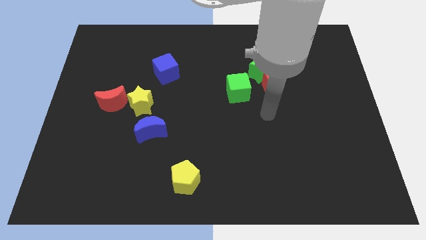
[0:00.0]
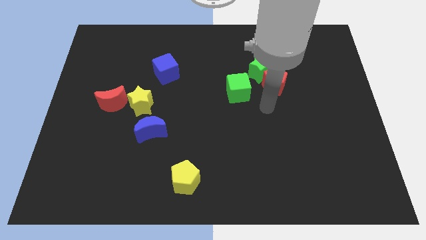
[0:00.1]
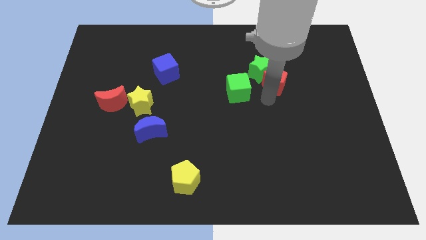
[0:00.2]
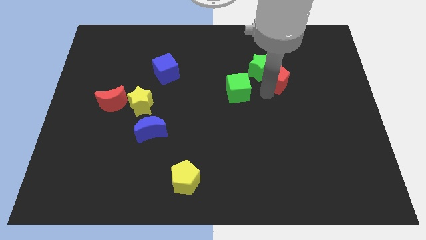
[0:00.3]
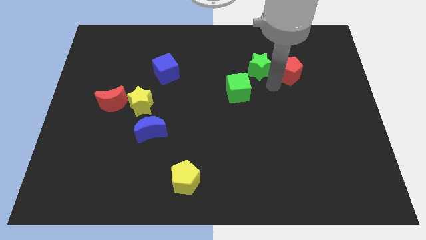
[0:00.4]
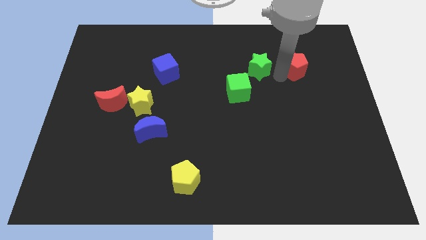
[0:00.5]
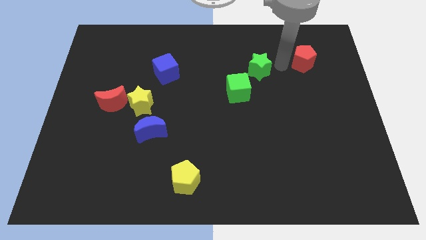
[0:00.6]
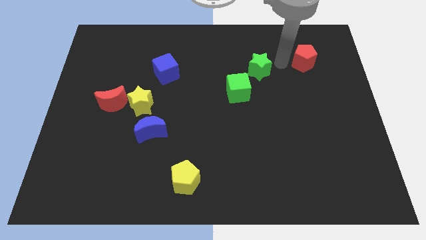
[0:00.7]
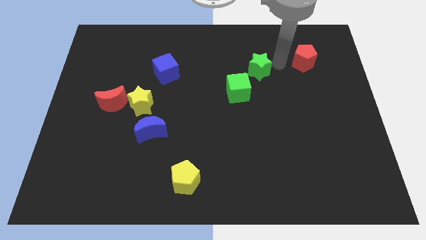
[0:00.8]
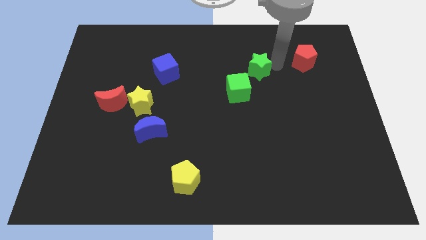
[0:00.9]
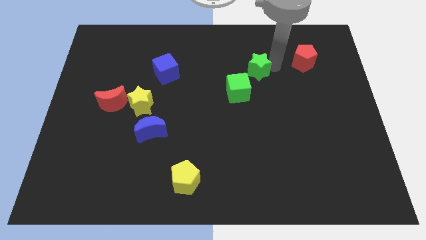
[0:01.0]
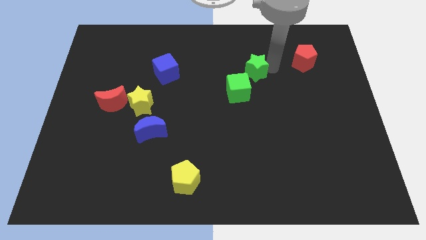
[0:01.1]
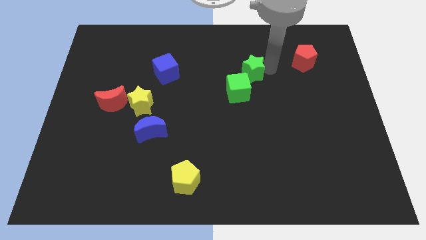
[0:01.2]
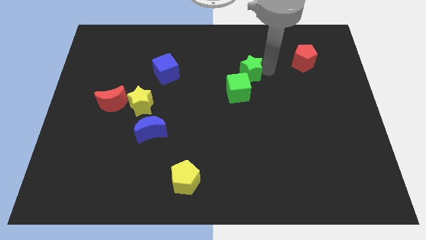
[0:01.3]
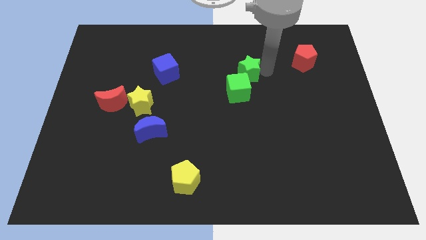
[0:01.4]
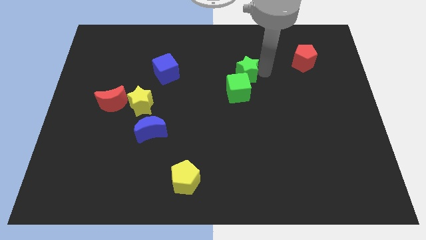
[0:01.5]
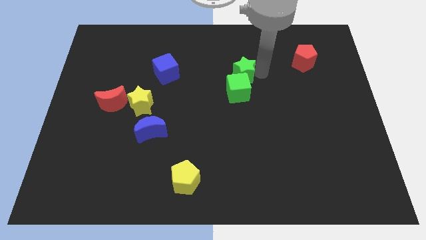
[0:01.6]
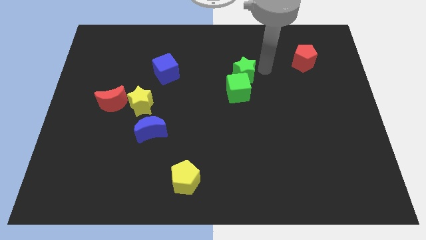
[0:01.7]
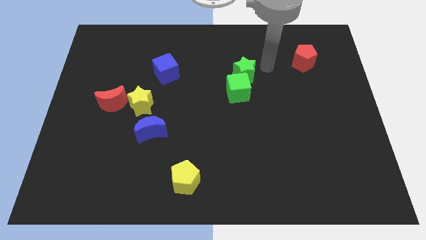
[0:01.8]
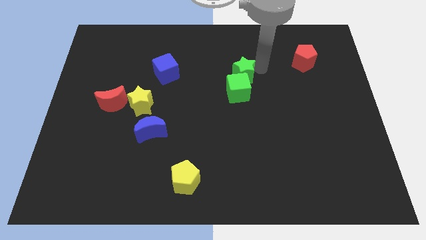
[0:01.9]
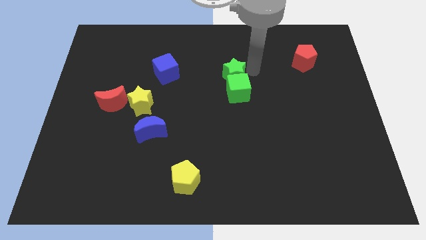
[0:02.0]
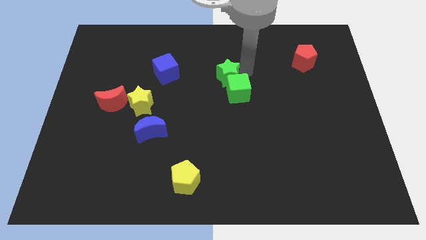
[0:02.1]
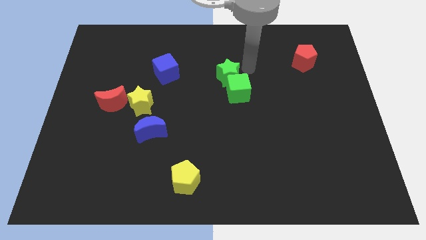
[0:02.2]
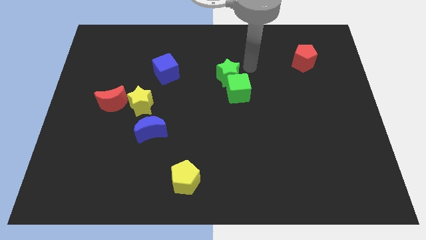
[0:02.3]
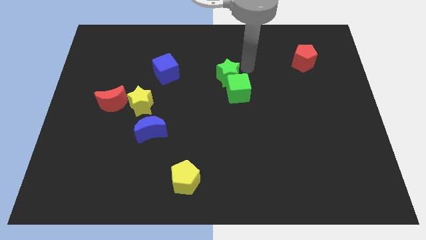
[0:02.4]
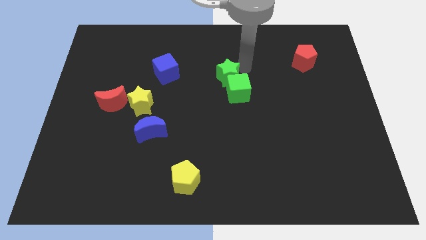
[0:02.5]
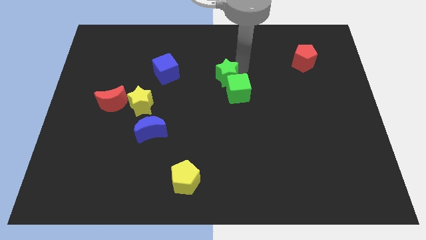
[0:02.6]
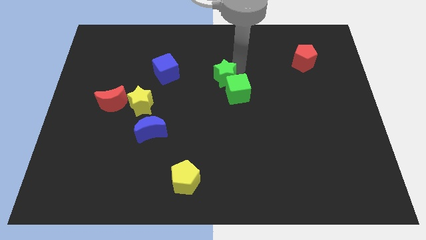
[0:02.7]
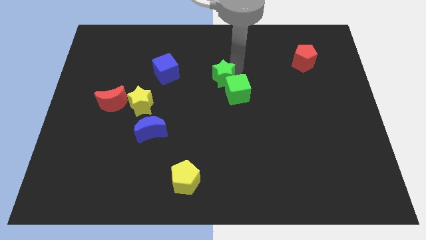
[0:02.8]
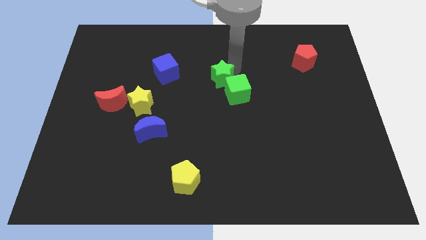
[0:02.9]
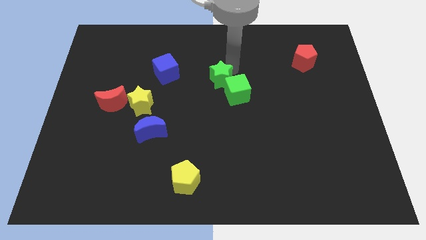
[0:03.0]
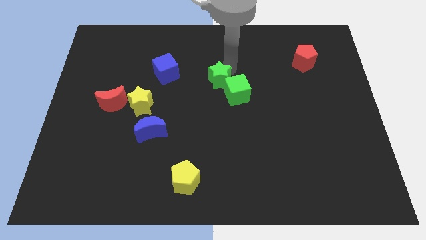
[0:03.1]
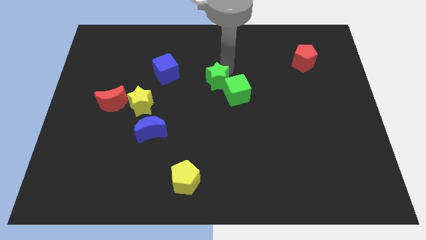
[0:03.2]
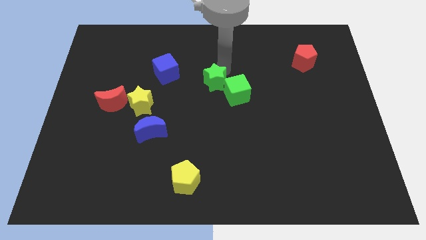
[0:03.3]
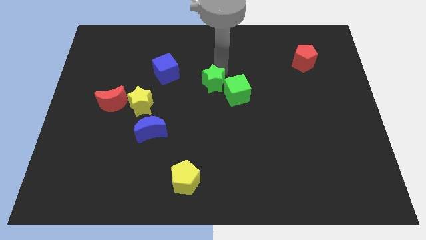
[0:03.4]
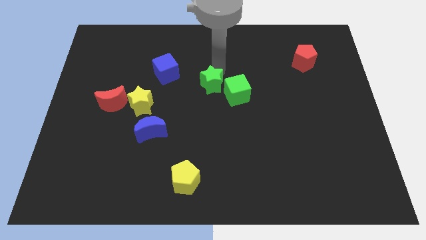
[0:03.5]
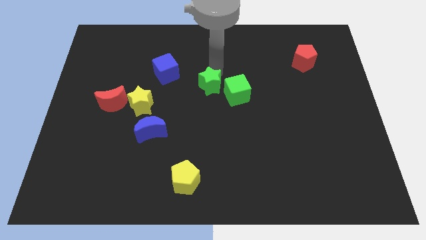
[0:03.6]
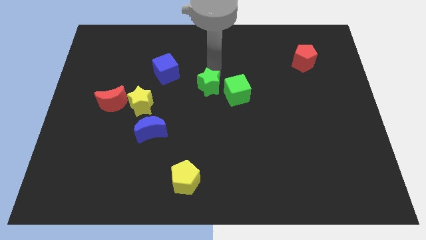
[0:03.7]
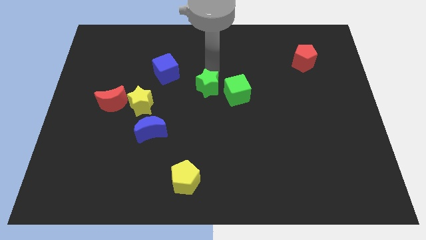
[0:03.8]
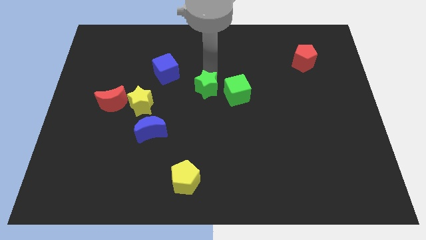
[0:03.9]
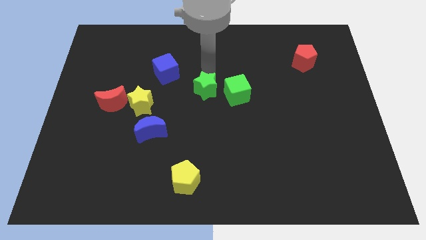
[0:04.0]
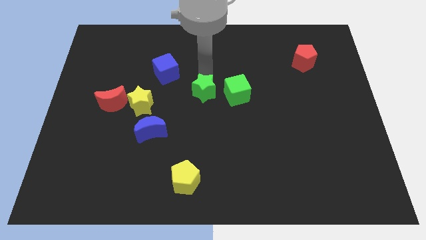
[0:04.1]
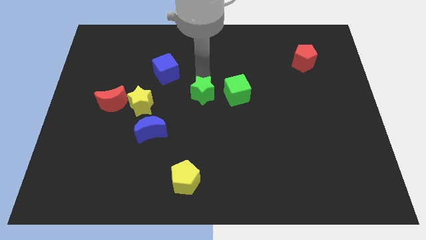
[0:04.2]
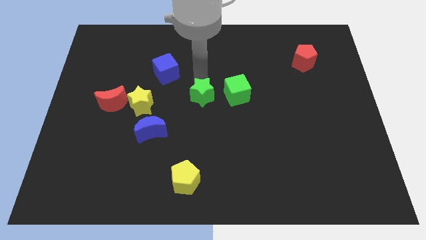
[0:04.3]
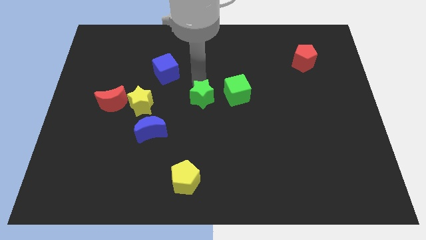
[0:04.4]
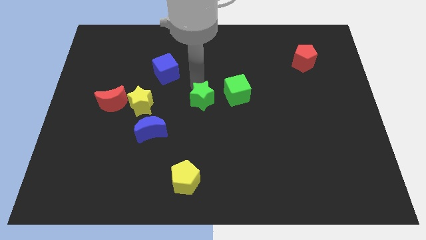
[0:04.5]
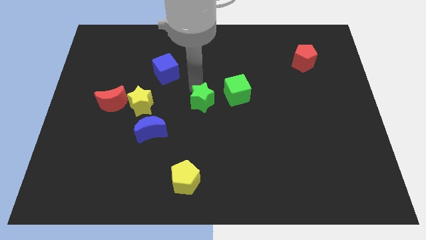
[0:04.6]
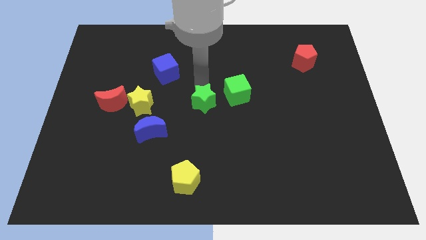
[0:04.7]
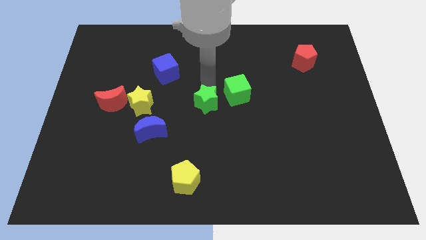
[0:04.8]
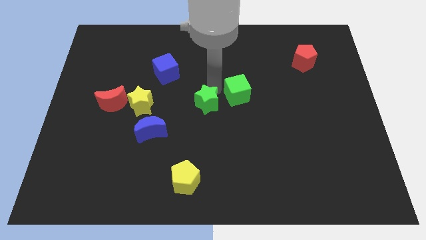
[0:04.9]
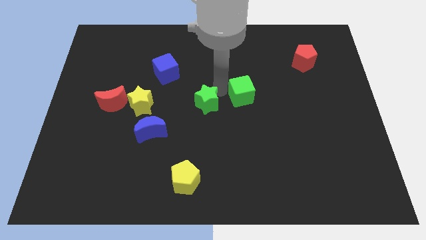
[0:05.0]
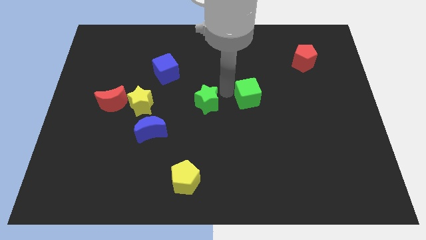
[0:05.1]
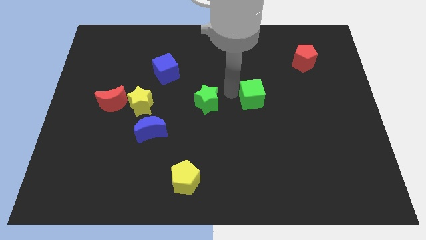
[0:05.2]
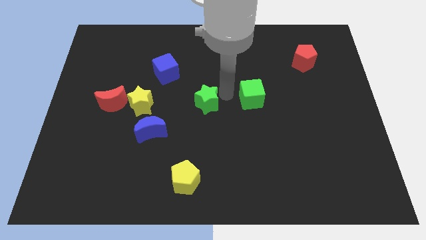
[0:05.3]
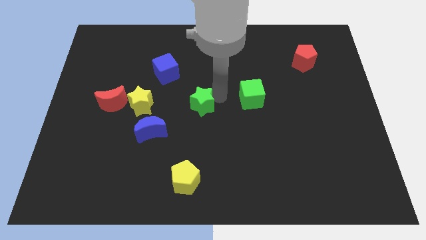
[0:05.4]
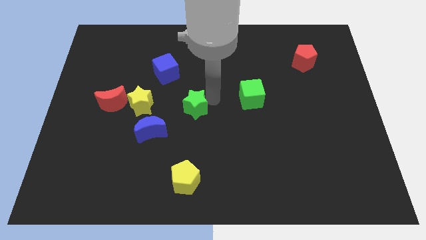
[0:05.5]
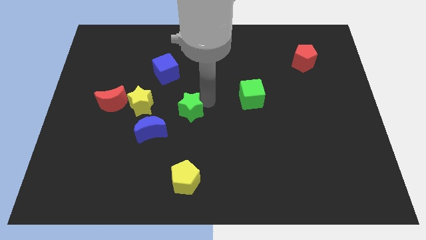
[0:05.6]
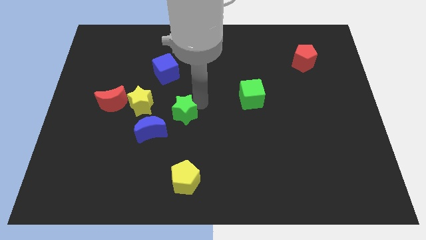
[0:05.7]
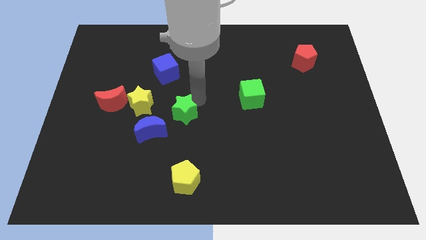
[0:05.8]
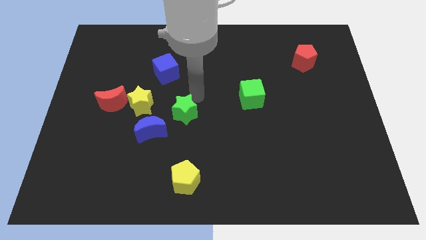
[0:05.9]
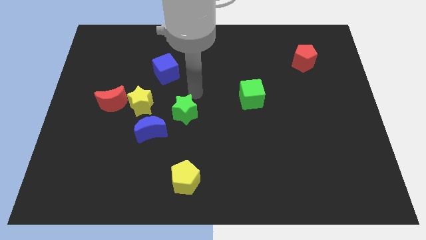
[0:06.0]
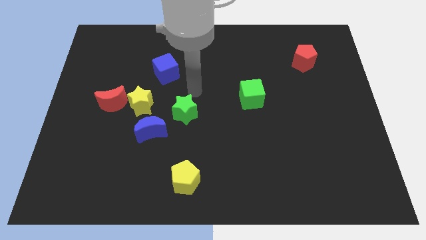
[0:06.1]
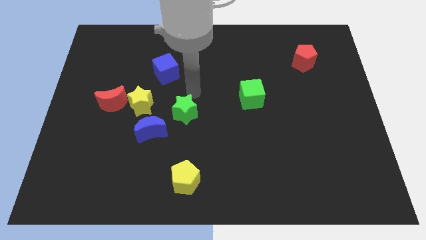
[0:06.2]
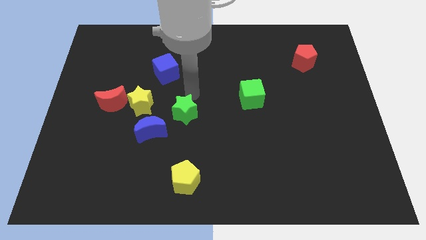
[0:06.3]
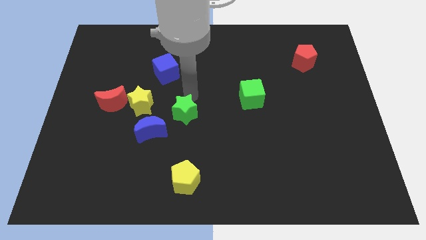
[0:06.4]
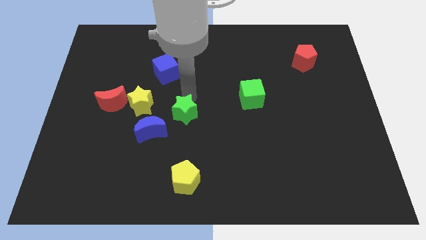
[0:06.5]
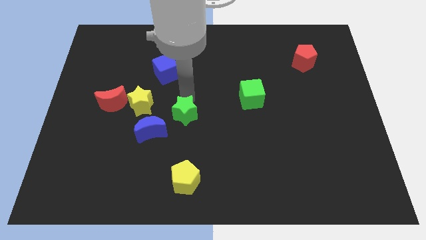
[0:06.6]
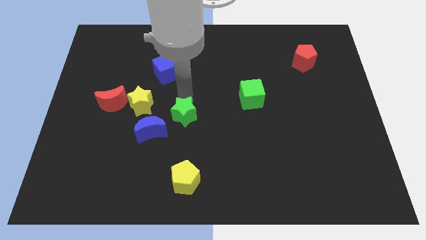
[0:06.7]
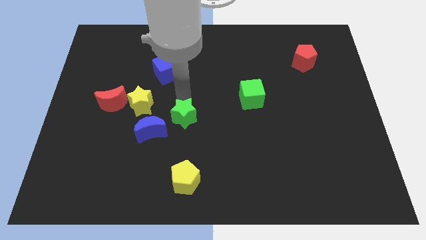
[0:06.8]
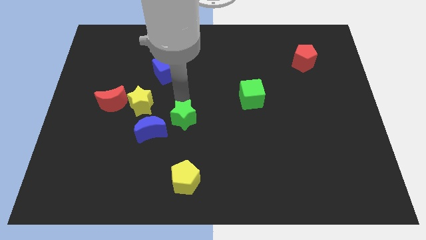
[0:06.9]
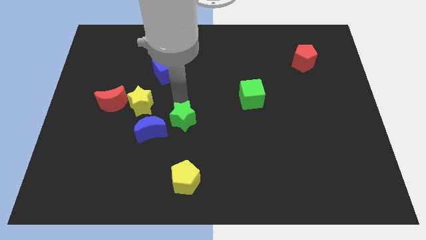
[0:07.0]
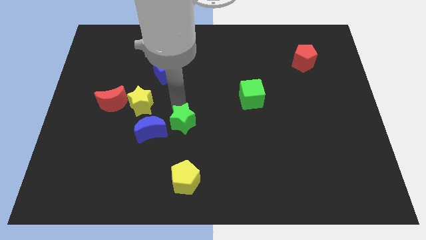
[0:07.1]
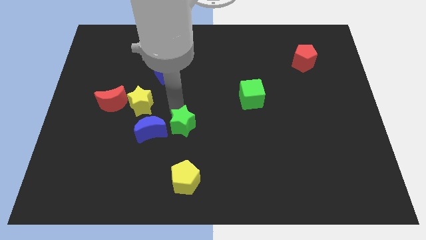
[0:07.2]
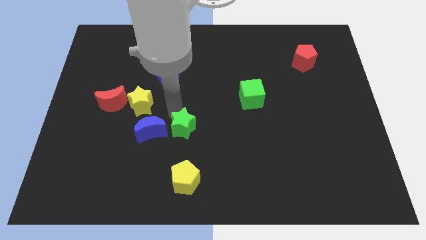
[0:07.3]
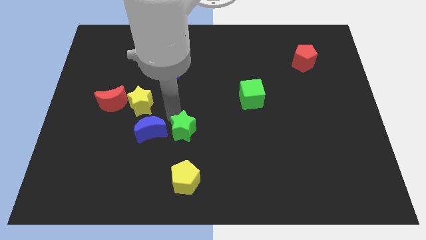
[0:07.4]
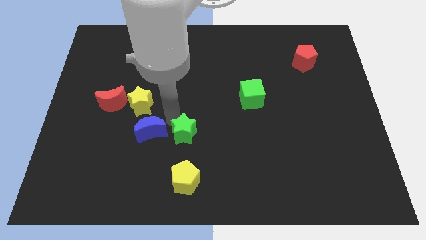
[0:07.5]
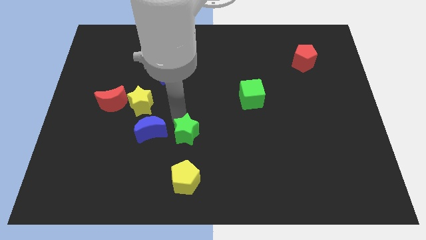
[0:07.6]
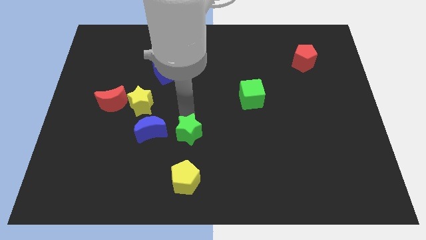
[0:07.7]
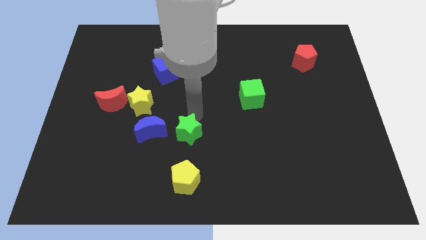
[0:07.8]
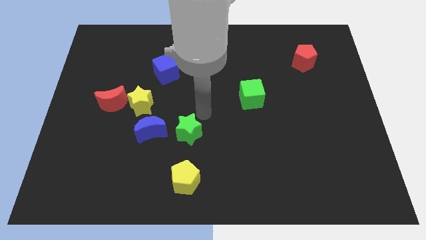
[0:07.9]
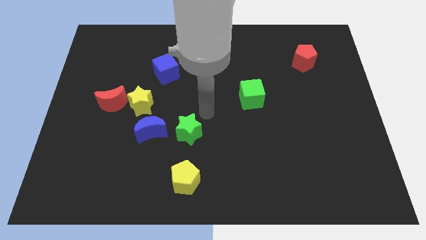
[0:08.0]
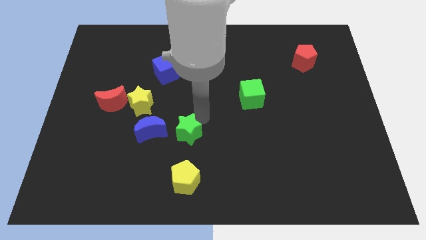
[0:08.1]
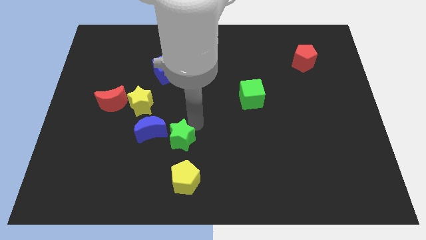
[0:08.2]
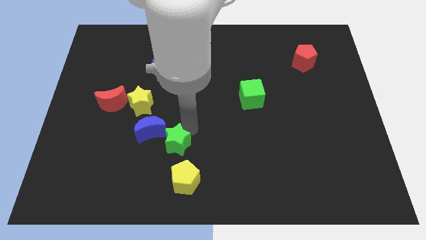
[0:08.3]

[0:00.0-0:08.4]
put the green star to the top left side of the yellow pentagon
